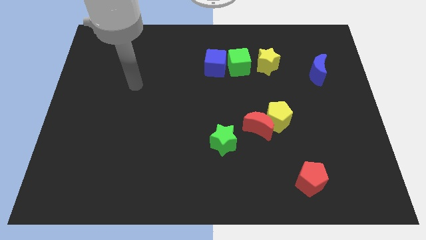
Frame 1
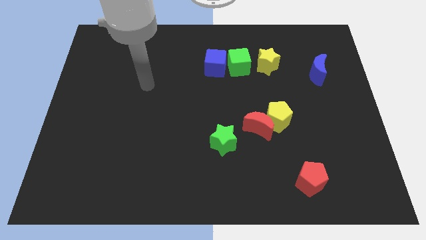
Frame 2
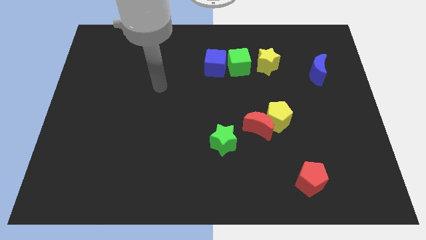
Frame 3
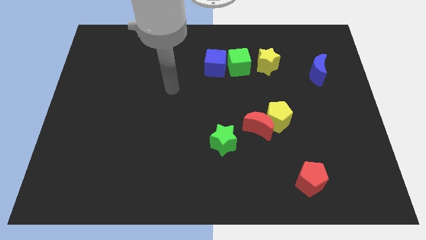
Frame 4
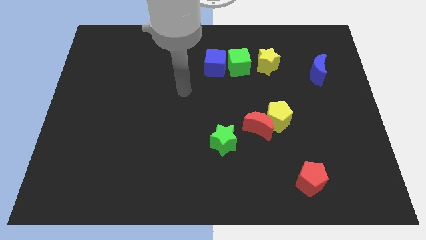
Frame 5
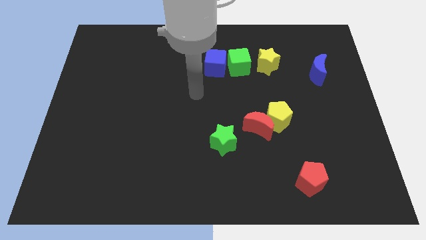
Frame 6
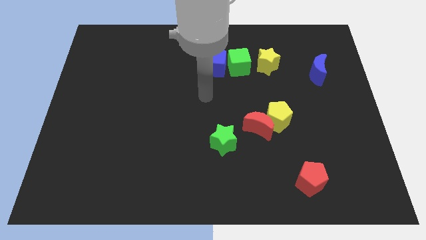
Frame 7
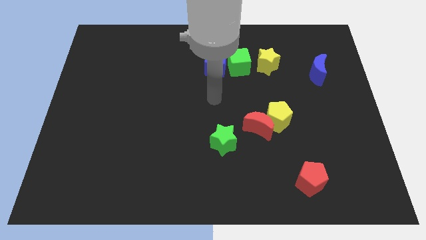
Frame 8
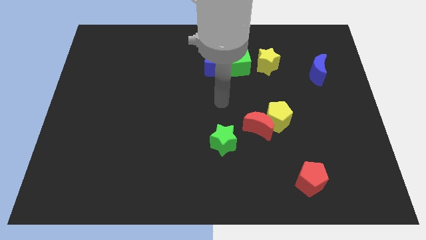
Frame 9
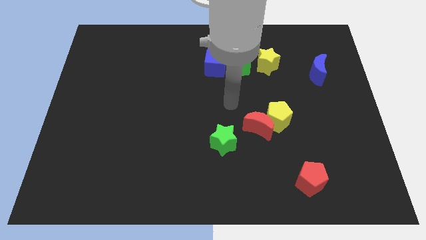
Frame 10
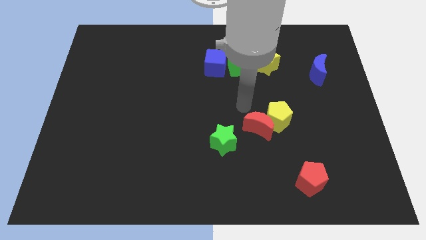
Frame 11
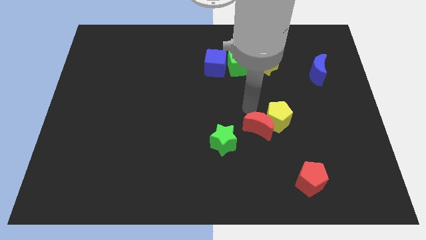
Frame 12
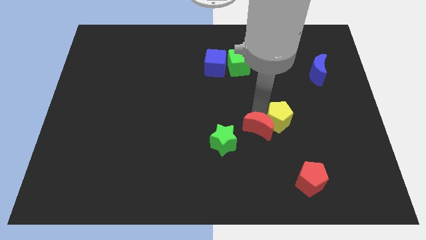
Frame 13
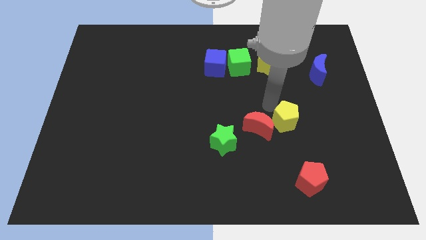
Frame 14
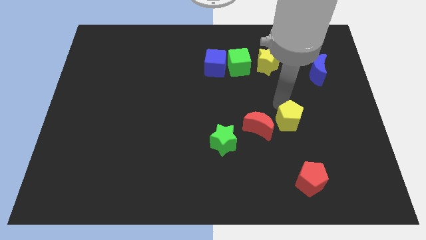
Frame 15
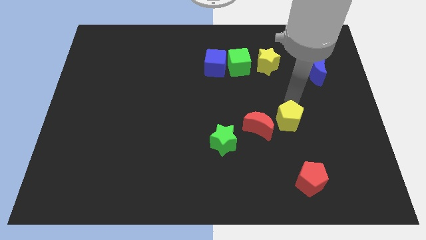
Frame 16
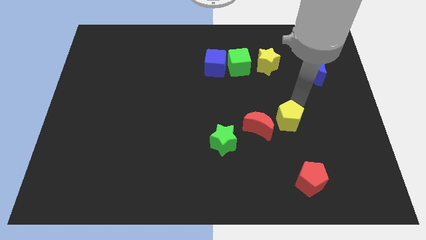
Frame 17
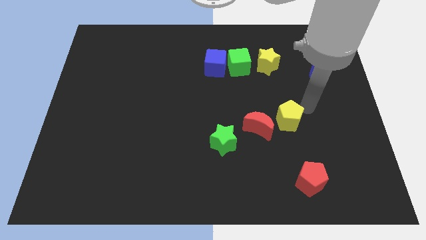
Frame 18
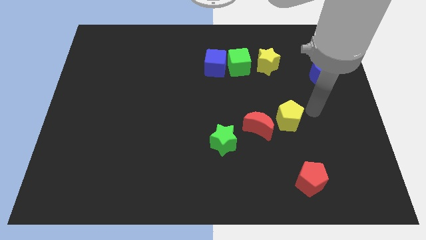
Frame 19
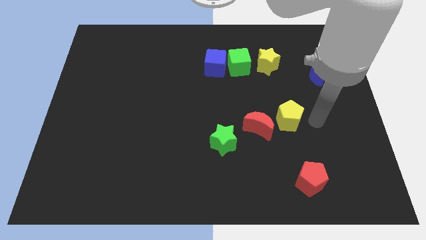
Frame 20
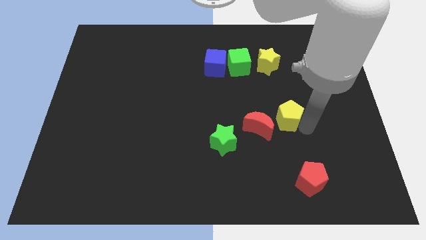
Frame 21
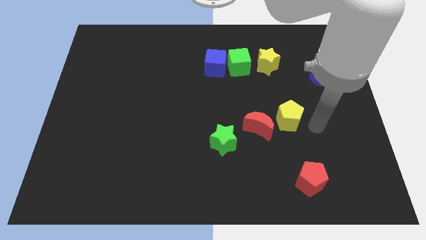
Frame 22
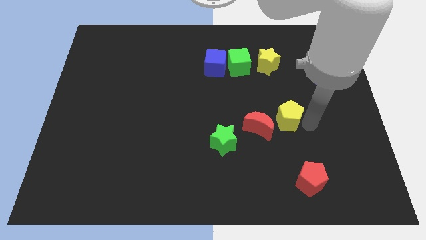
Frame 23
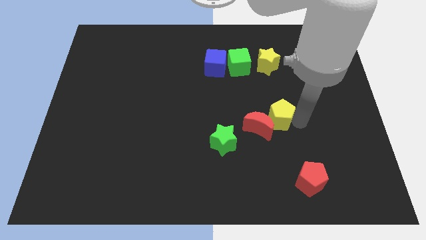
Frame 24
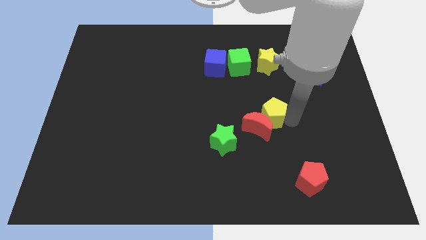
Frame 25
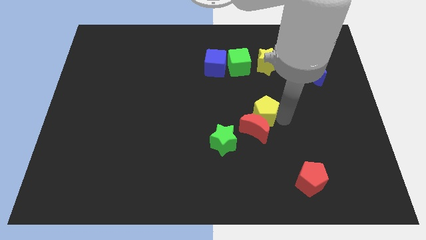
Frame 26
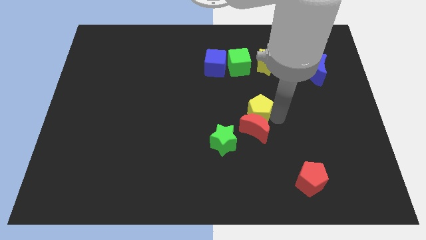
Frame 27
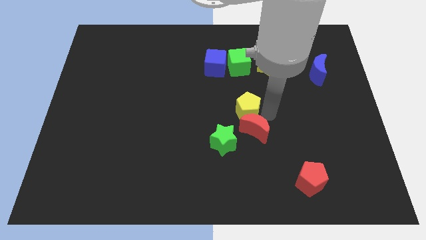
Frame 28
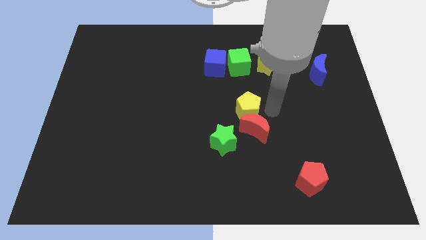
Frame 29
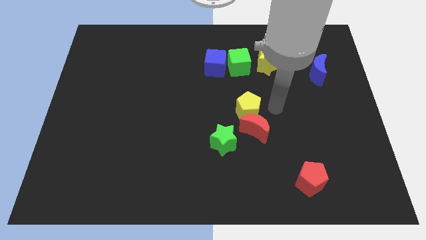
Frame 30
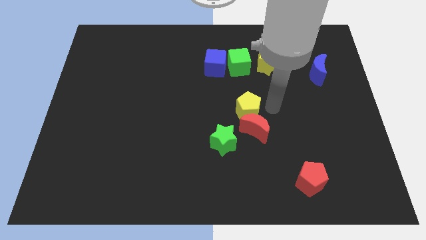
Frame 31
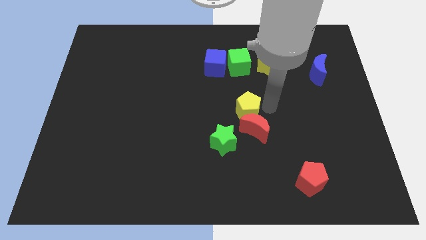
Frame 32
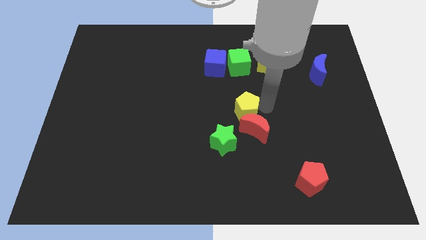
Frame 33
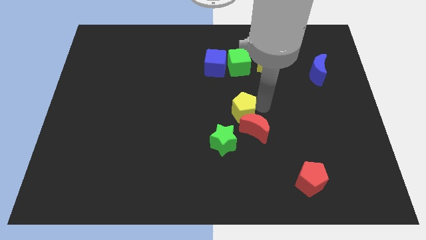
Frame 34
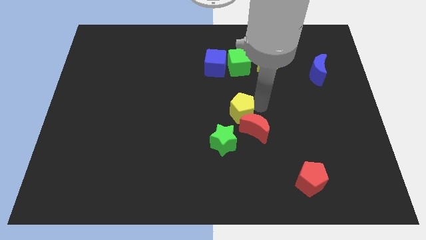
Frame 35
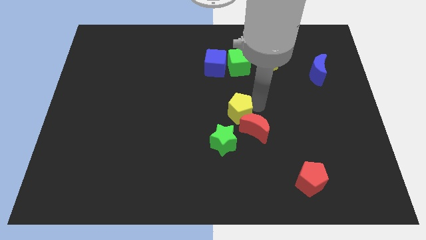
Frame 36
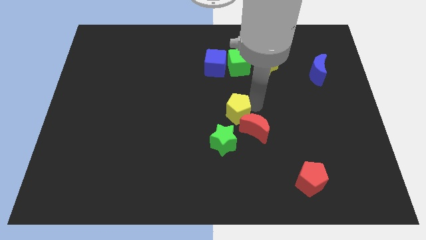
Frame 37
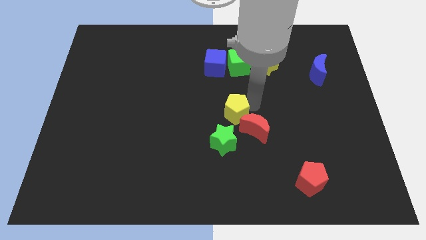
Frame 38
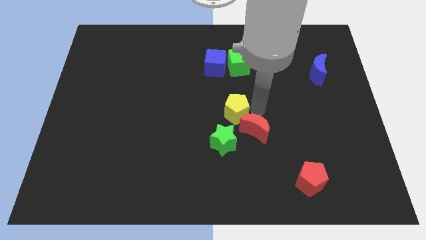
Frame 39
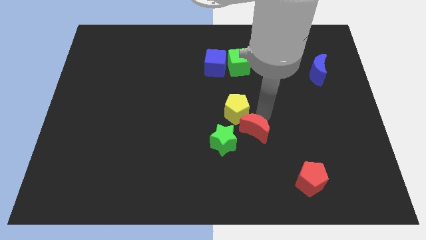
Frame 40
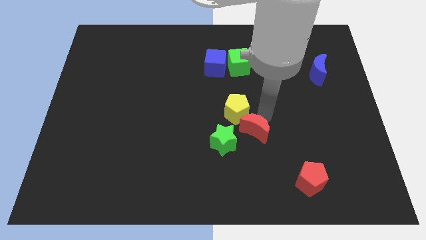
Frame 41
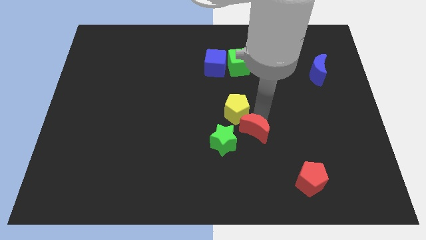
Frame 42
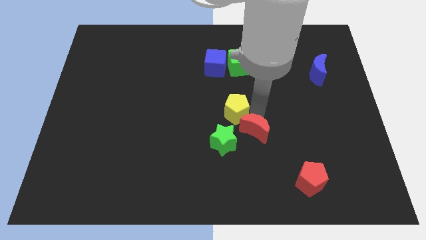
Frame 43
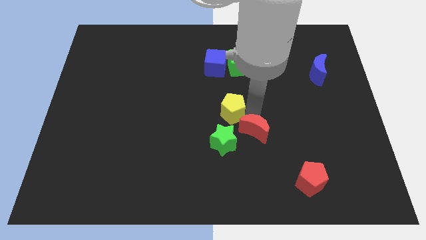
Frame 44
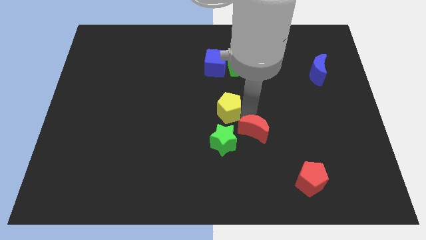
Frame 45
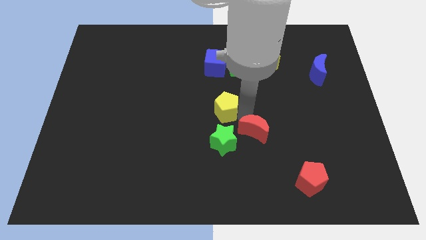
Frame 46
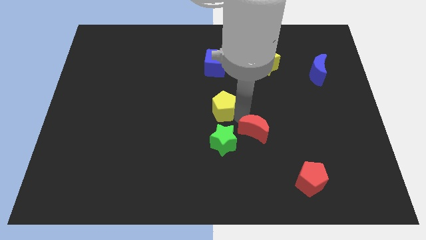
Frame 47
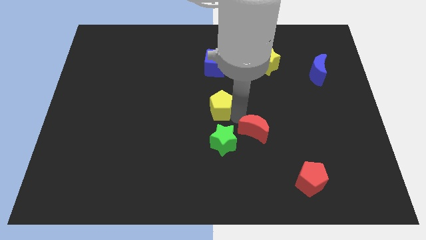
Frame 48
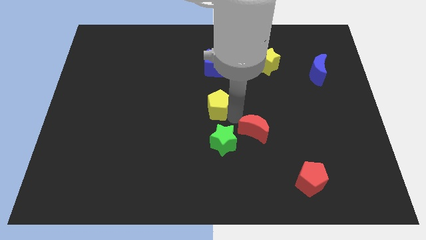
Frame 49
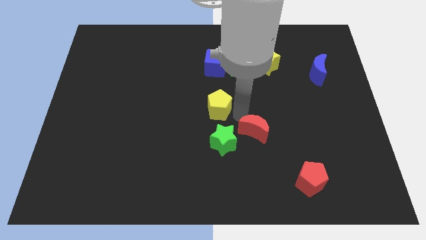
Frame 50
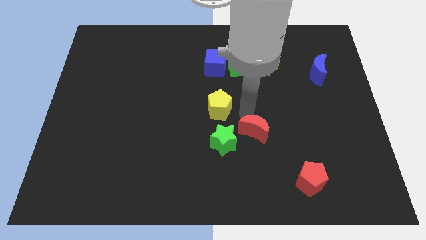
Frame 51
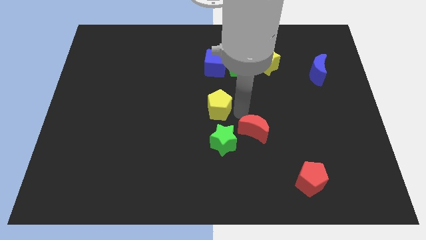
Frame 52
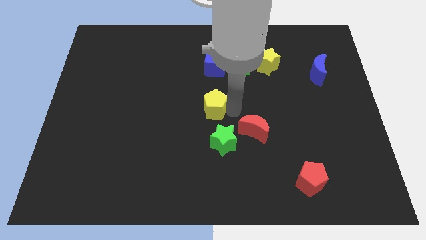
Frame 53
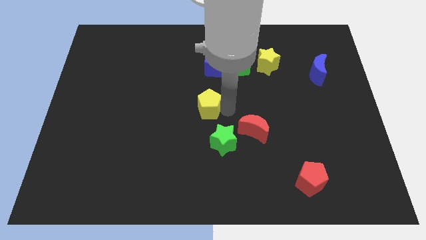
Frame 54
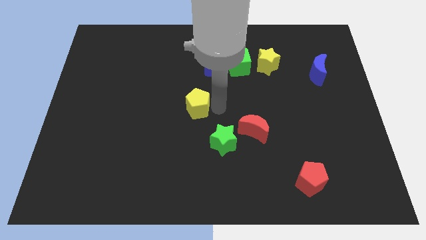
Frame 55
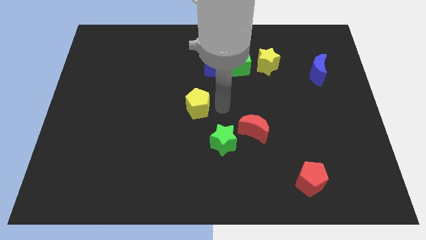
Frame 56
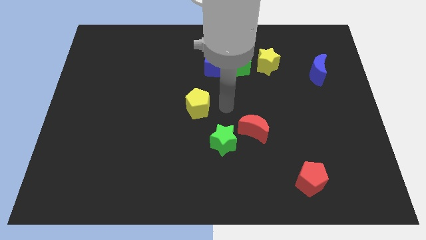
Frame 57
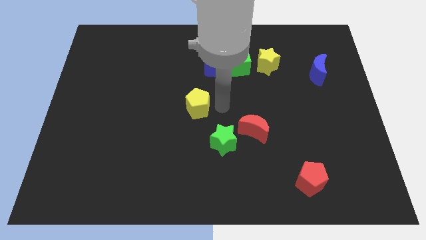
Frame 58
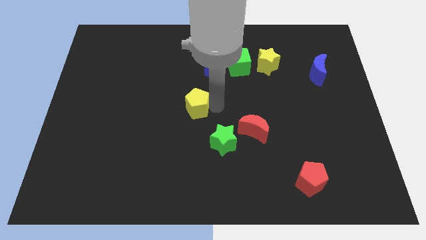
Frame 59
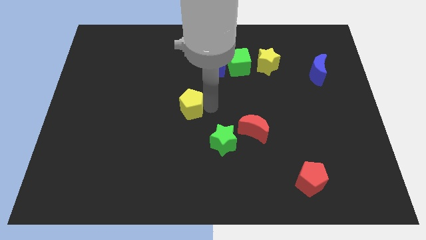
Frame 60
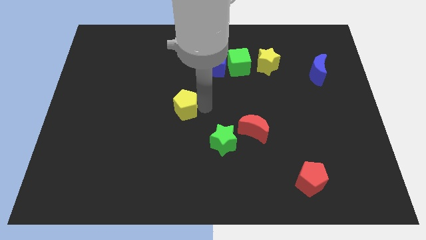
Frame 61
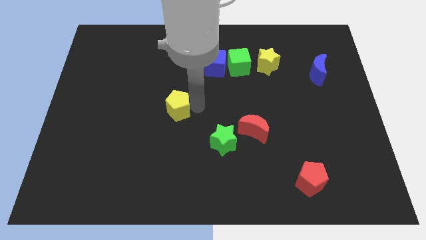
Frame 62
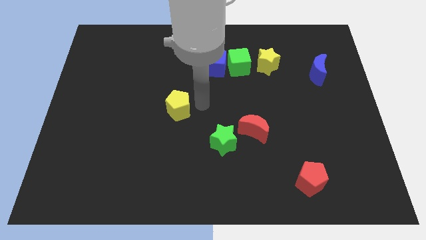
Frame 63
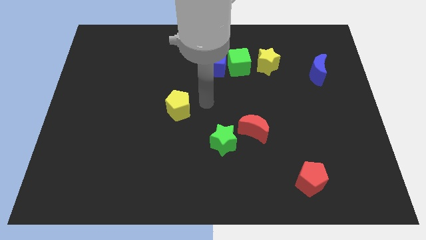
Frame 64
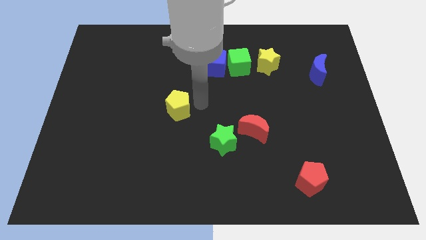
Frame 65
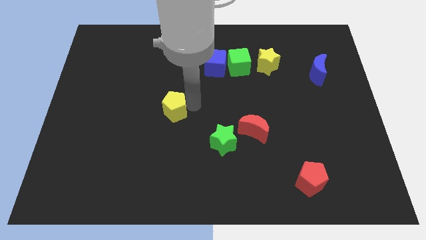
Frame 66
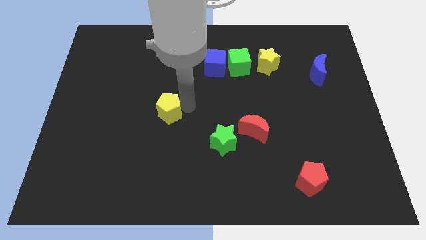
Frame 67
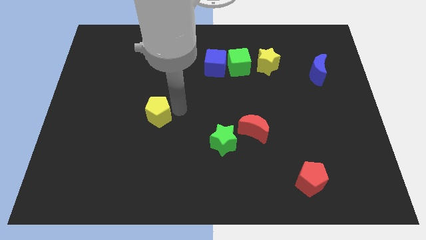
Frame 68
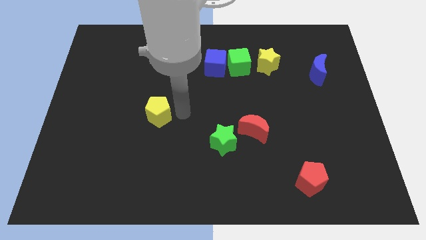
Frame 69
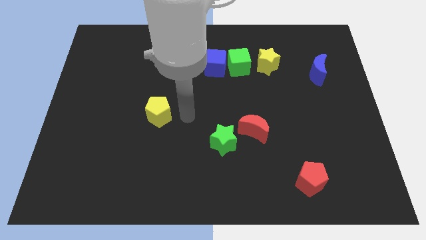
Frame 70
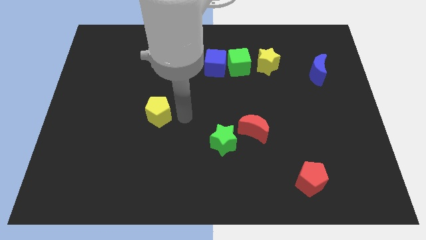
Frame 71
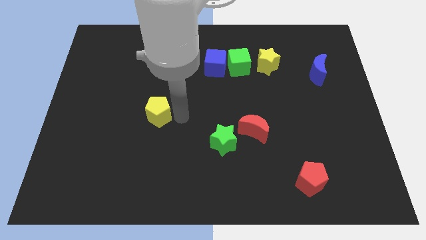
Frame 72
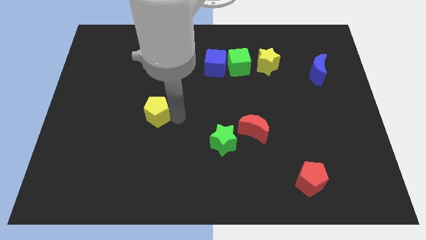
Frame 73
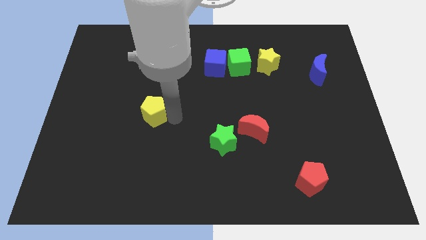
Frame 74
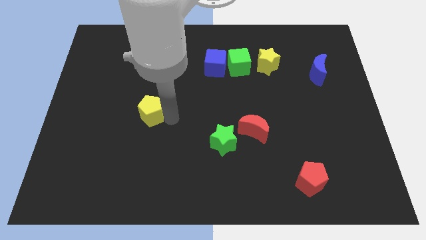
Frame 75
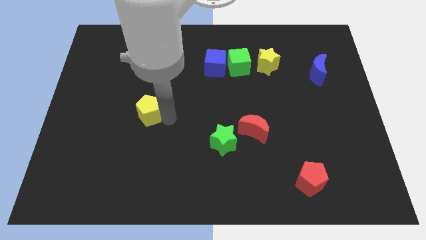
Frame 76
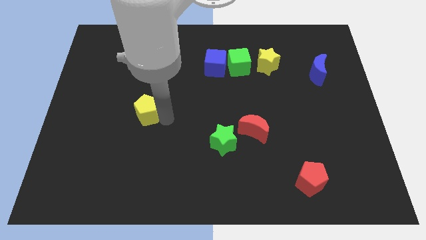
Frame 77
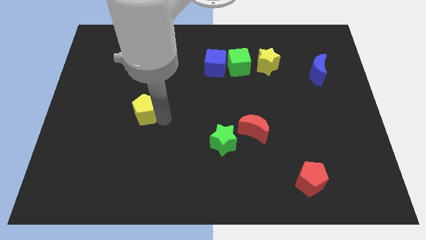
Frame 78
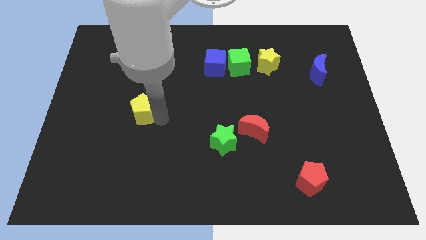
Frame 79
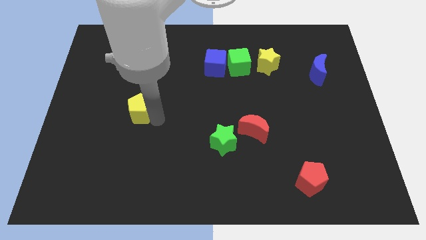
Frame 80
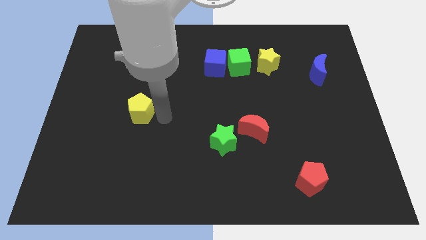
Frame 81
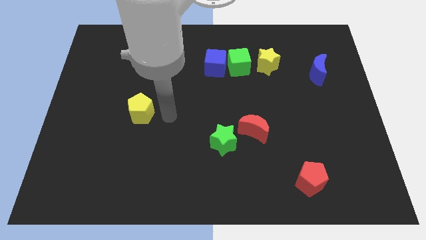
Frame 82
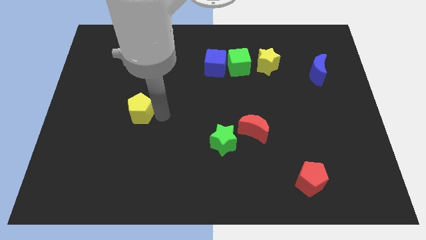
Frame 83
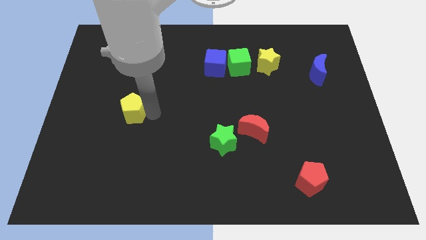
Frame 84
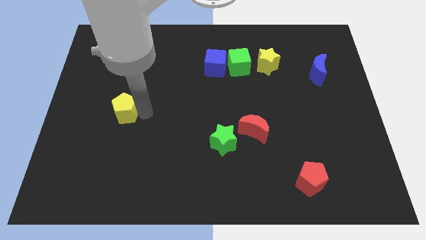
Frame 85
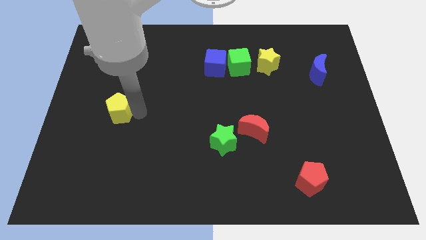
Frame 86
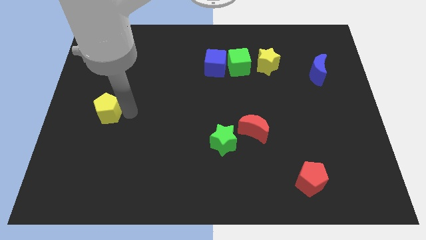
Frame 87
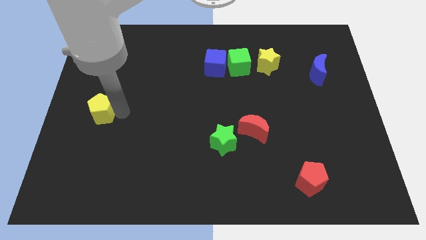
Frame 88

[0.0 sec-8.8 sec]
move the yellow pentagon to the left side of the board
